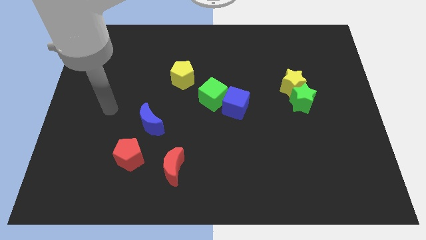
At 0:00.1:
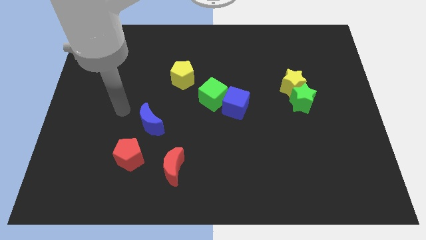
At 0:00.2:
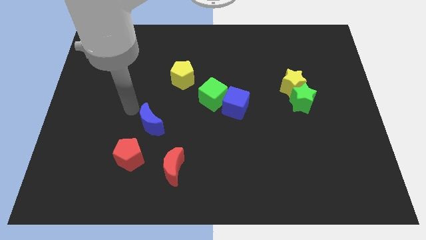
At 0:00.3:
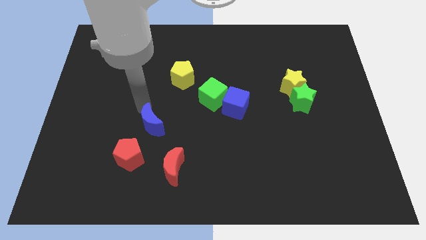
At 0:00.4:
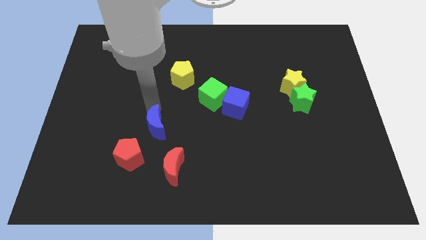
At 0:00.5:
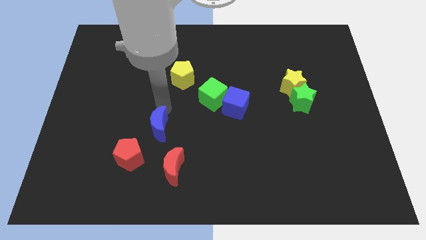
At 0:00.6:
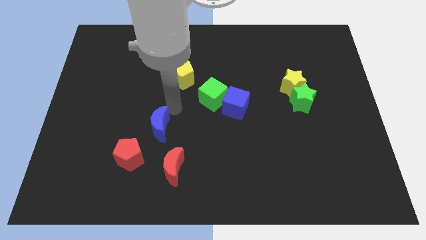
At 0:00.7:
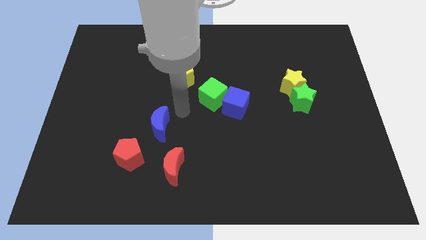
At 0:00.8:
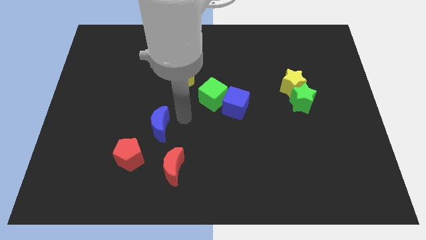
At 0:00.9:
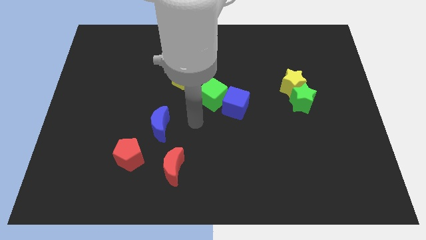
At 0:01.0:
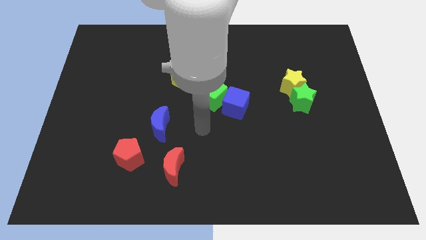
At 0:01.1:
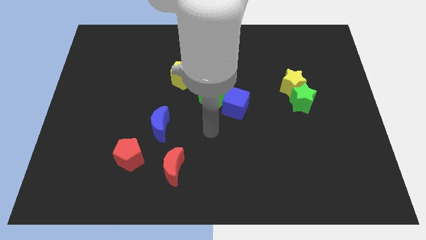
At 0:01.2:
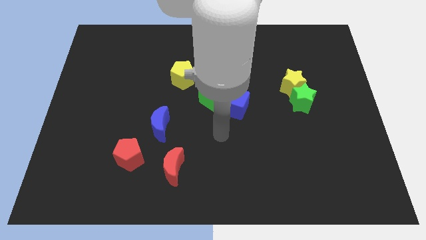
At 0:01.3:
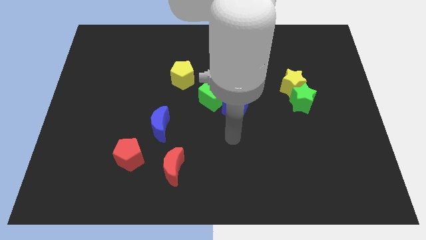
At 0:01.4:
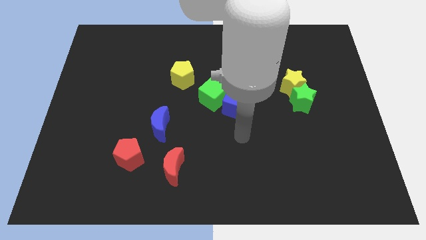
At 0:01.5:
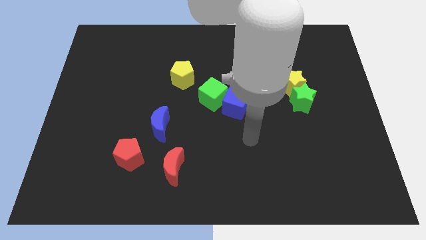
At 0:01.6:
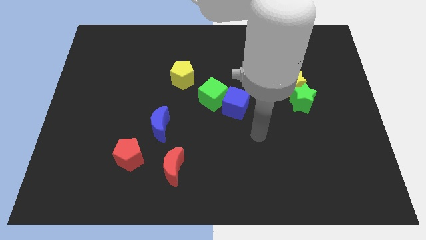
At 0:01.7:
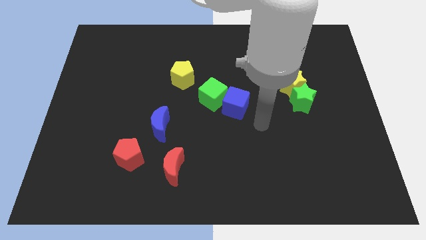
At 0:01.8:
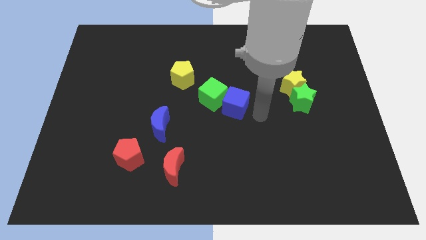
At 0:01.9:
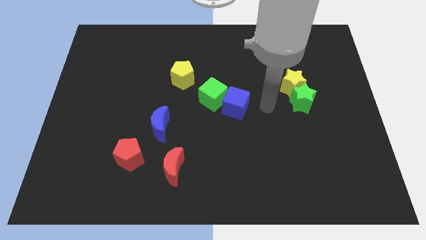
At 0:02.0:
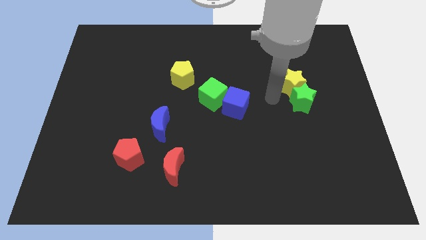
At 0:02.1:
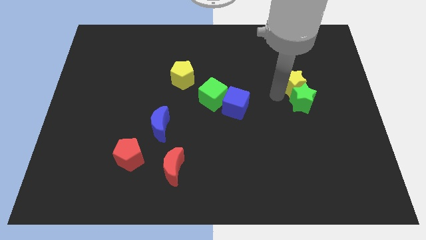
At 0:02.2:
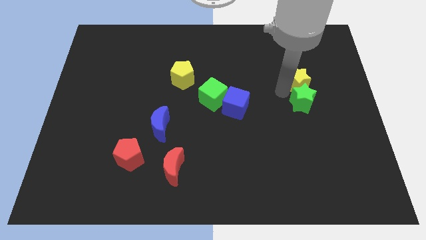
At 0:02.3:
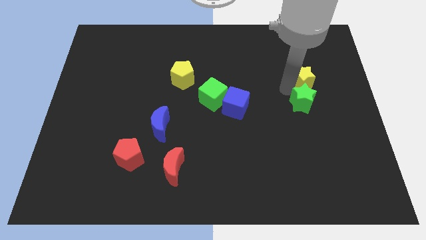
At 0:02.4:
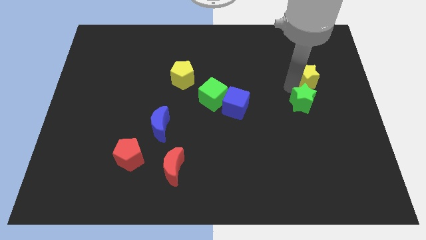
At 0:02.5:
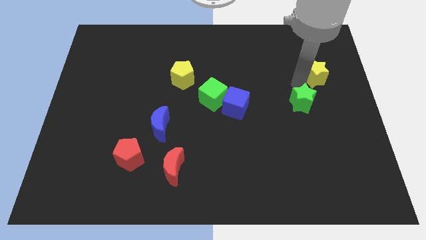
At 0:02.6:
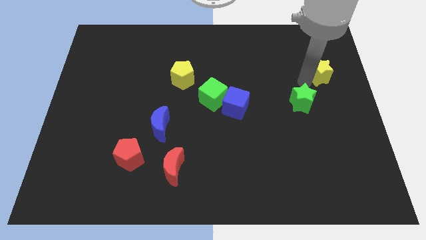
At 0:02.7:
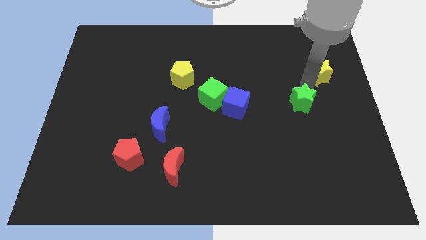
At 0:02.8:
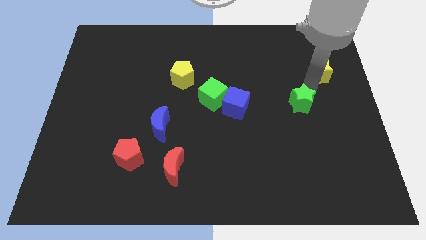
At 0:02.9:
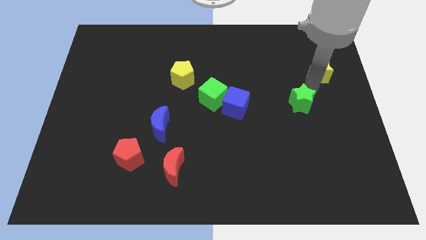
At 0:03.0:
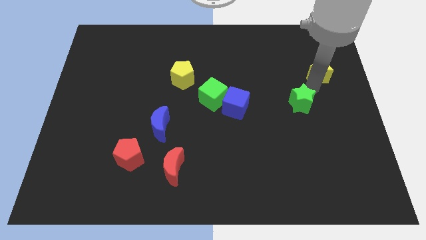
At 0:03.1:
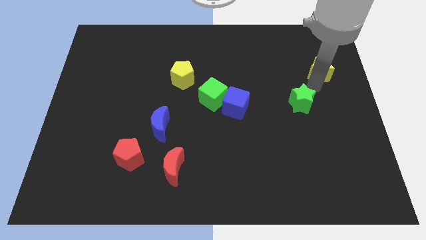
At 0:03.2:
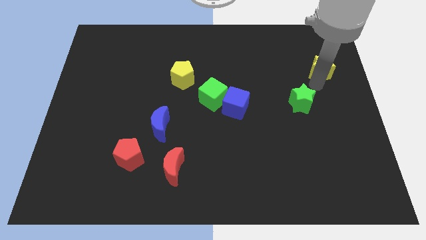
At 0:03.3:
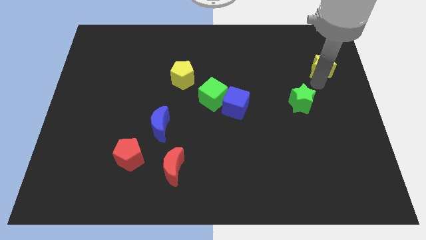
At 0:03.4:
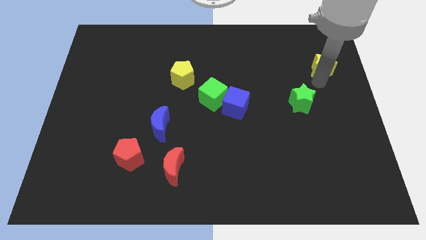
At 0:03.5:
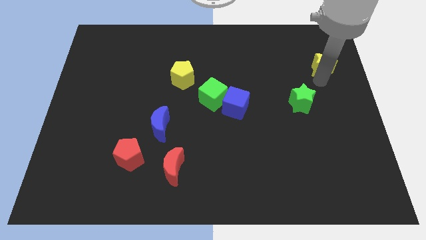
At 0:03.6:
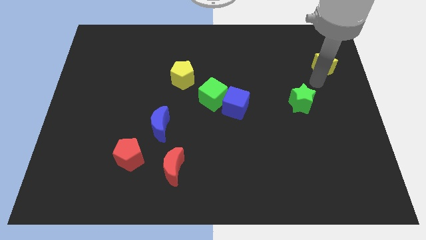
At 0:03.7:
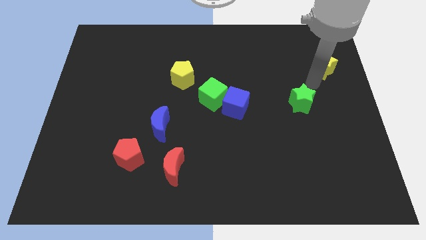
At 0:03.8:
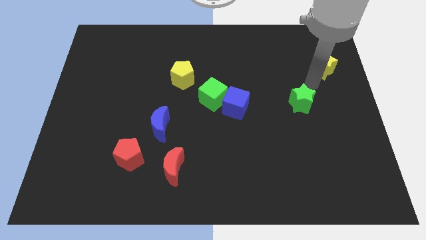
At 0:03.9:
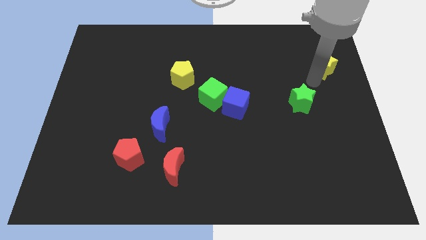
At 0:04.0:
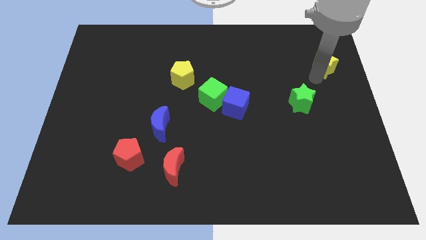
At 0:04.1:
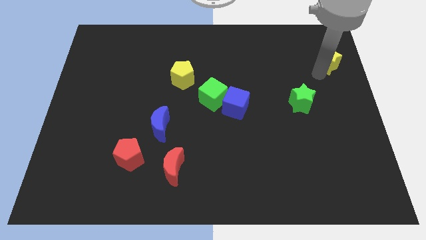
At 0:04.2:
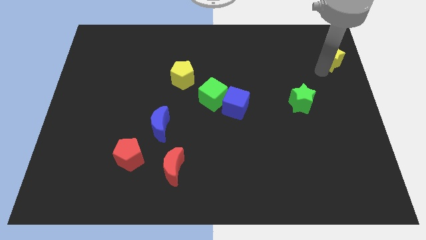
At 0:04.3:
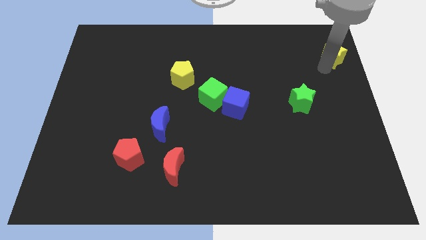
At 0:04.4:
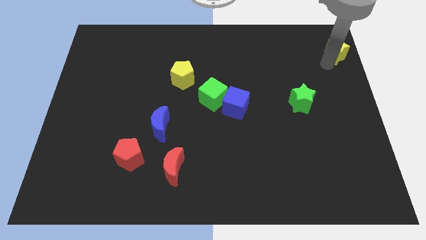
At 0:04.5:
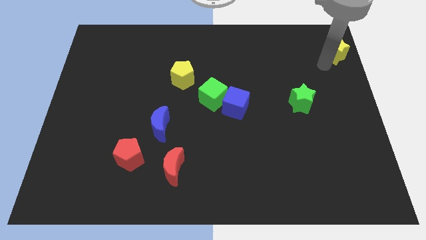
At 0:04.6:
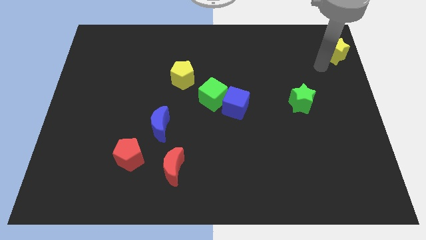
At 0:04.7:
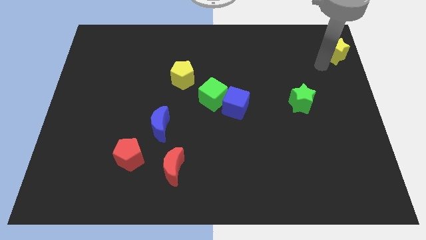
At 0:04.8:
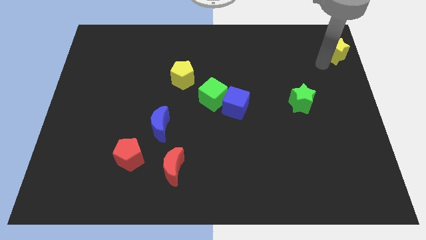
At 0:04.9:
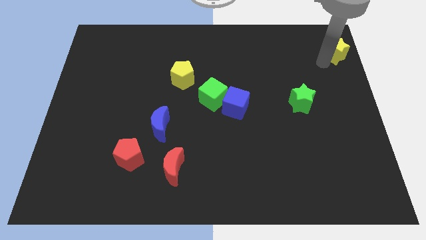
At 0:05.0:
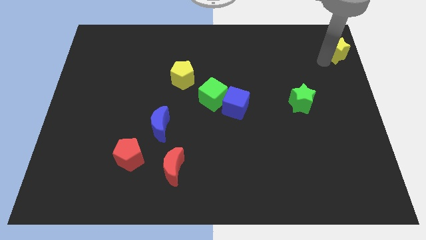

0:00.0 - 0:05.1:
push the yellow star to the upper right corner

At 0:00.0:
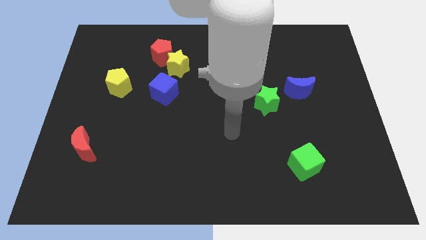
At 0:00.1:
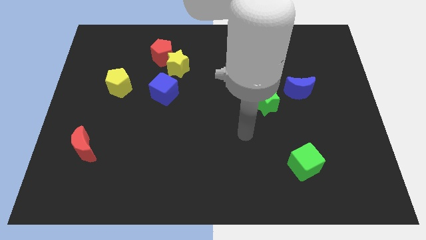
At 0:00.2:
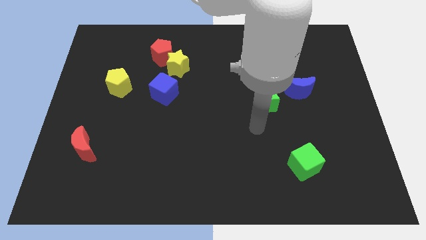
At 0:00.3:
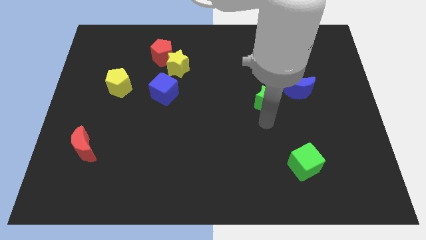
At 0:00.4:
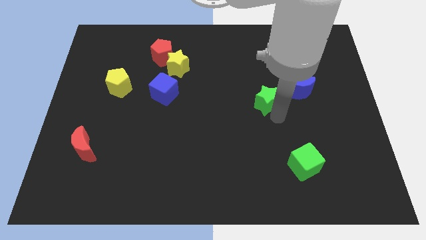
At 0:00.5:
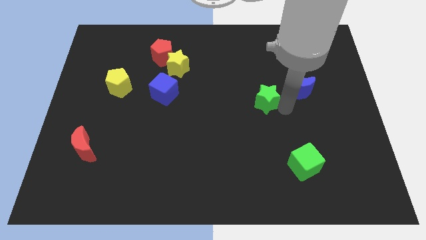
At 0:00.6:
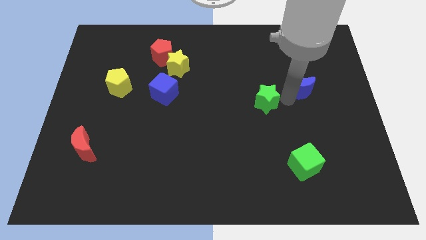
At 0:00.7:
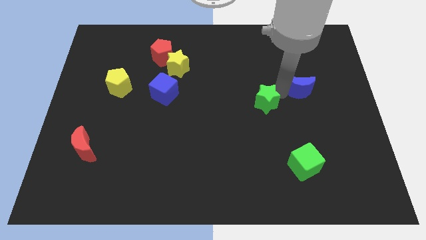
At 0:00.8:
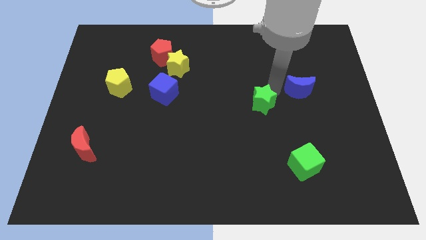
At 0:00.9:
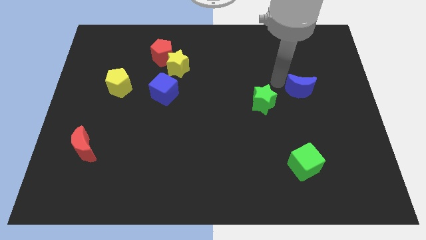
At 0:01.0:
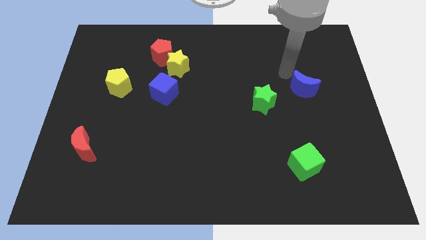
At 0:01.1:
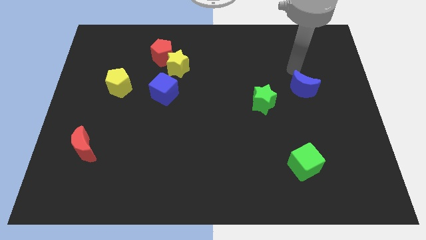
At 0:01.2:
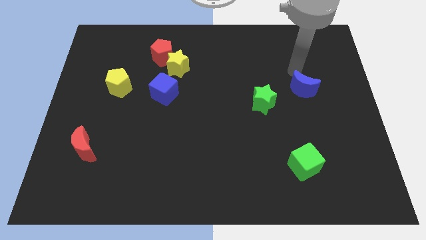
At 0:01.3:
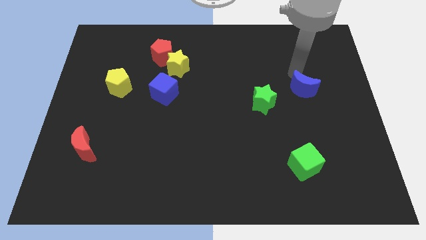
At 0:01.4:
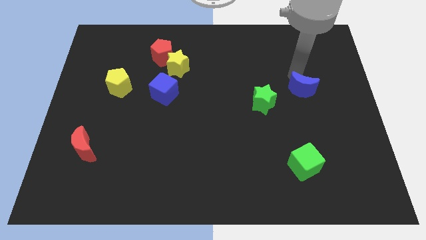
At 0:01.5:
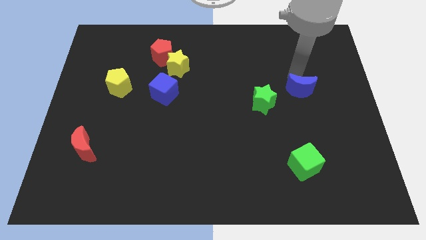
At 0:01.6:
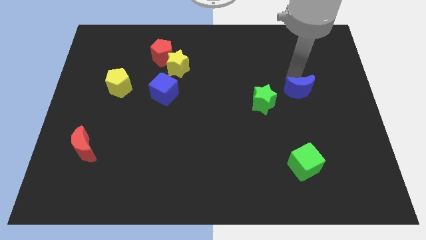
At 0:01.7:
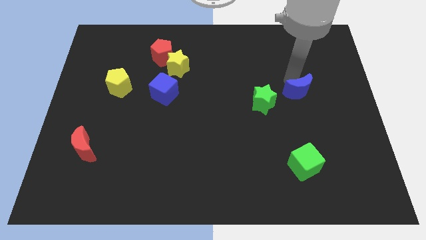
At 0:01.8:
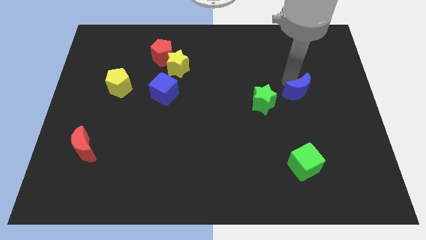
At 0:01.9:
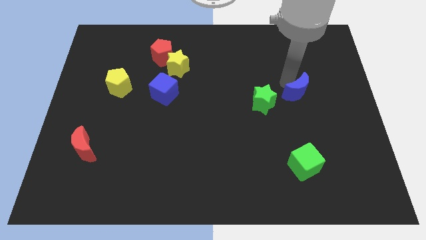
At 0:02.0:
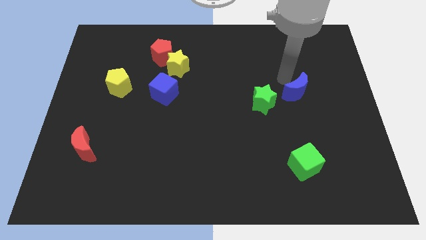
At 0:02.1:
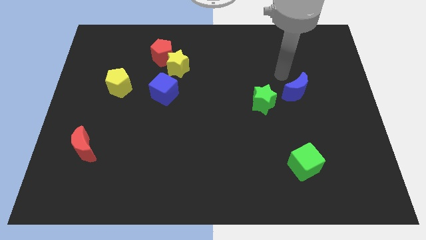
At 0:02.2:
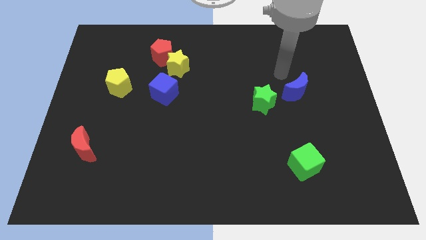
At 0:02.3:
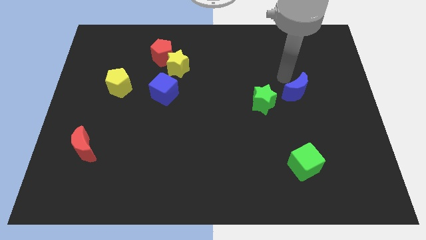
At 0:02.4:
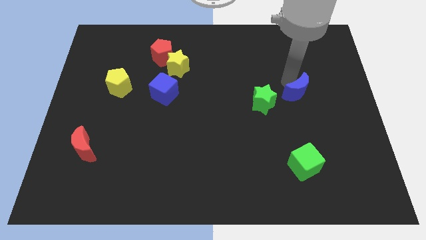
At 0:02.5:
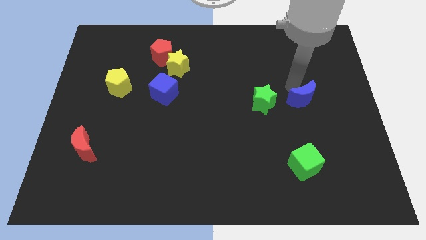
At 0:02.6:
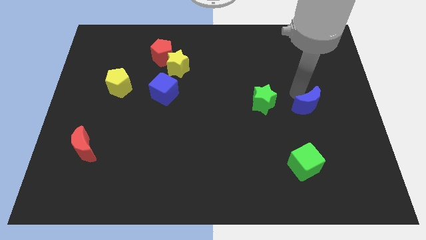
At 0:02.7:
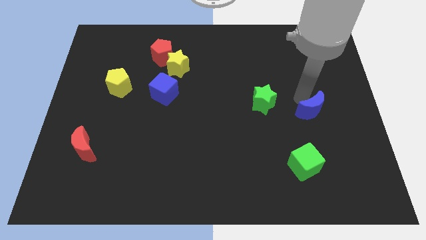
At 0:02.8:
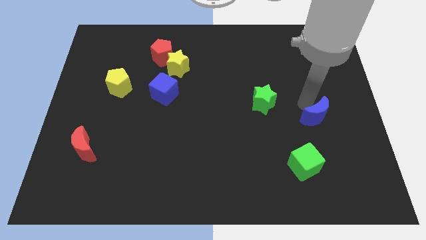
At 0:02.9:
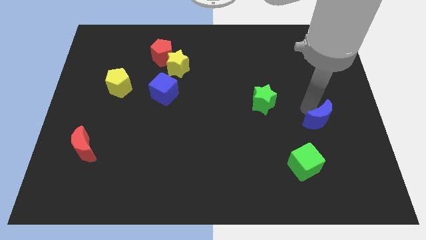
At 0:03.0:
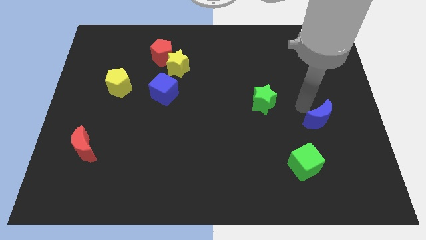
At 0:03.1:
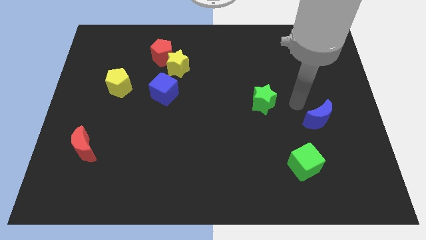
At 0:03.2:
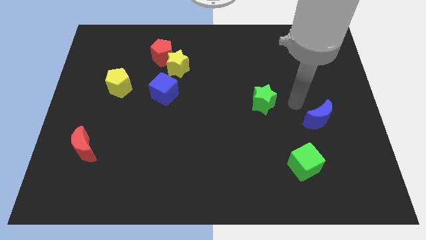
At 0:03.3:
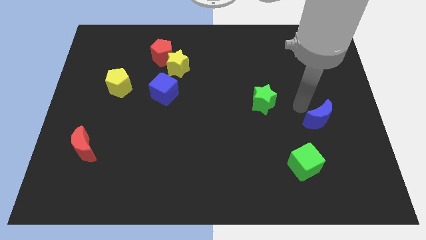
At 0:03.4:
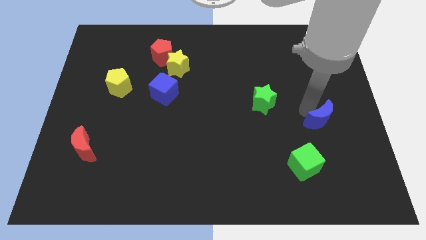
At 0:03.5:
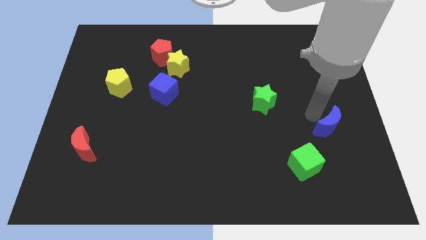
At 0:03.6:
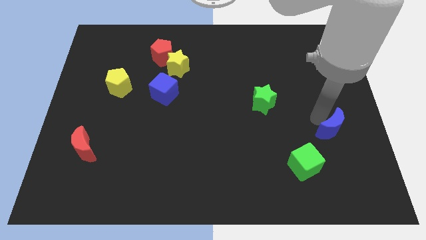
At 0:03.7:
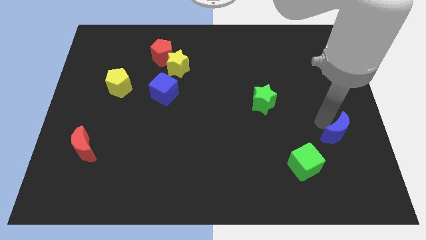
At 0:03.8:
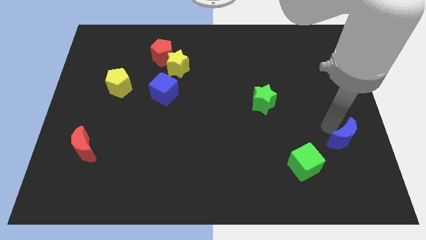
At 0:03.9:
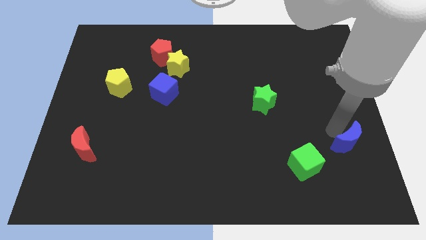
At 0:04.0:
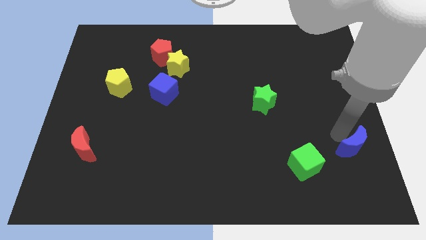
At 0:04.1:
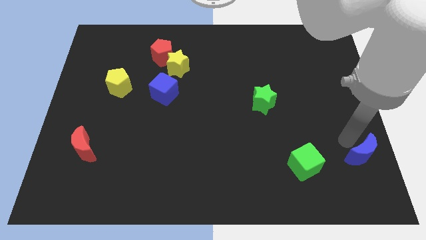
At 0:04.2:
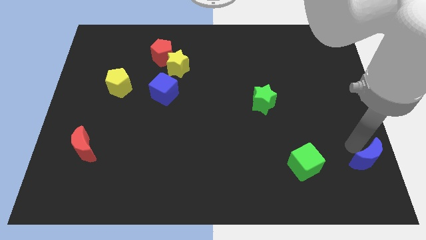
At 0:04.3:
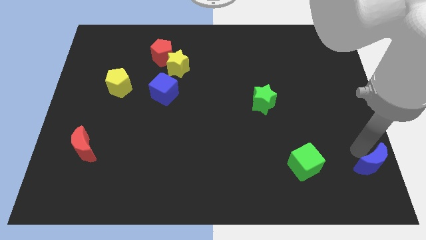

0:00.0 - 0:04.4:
push the blue moon to the bottom right of the board
